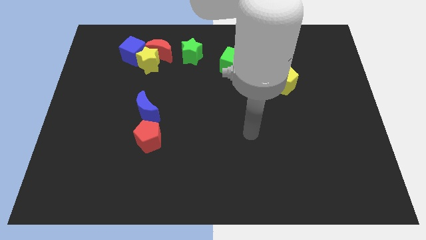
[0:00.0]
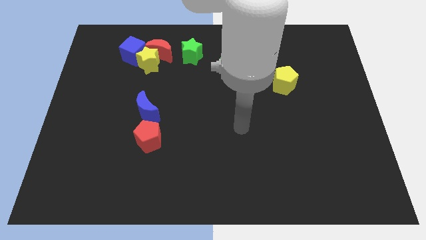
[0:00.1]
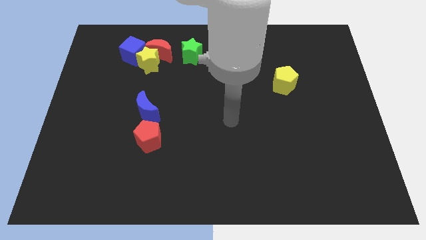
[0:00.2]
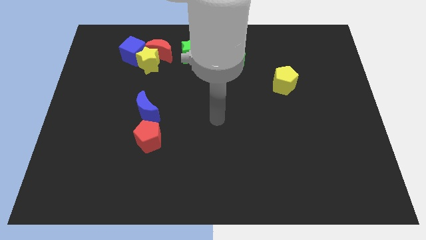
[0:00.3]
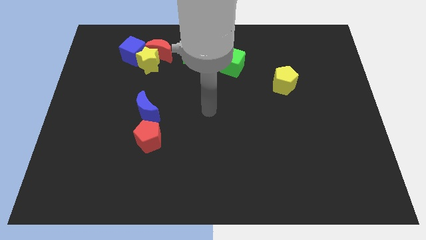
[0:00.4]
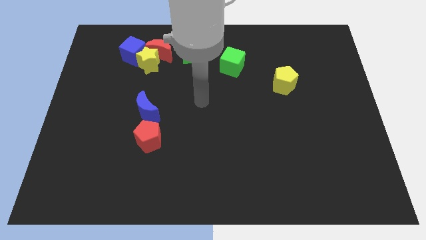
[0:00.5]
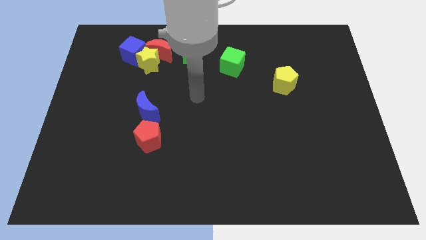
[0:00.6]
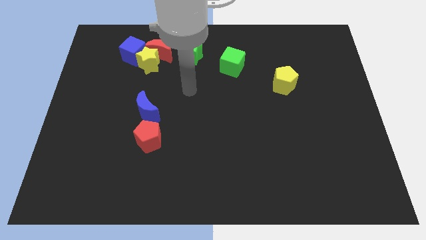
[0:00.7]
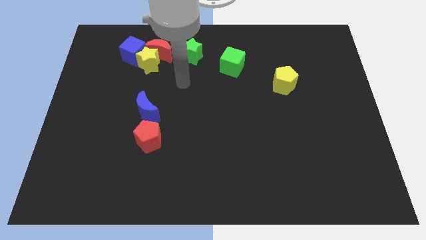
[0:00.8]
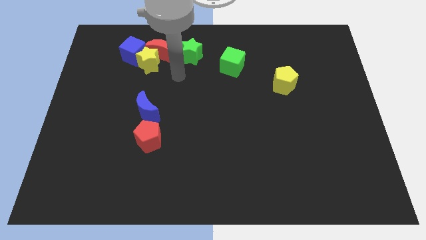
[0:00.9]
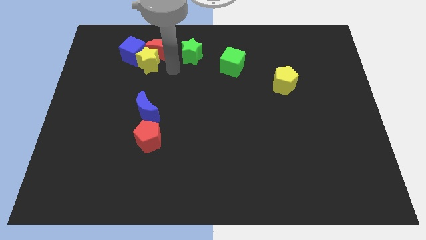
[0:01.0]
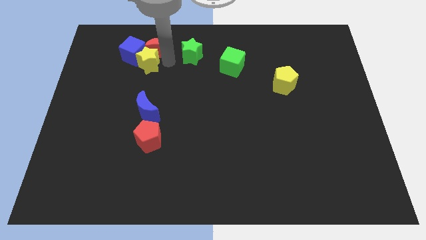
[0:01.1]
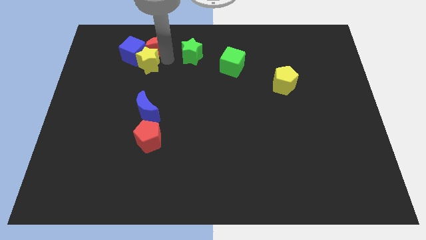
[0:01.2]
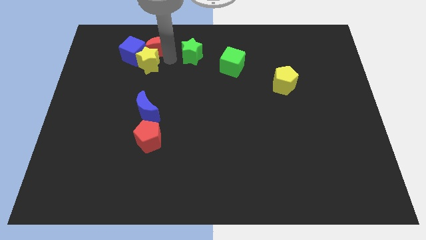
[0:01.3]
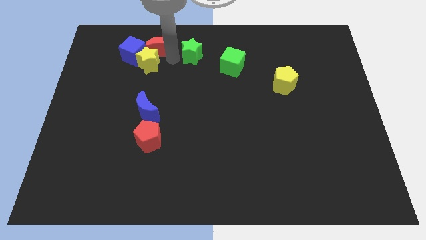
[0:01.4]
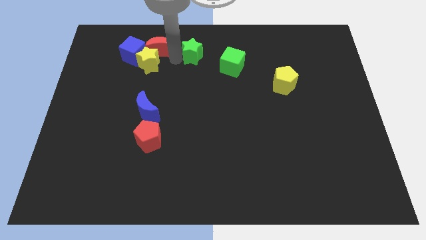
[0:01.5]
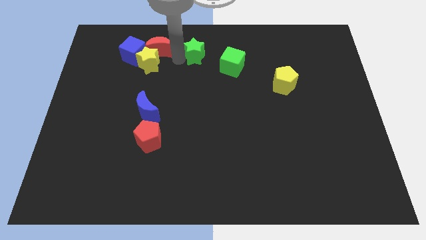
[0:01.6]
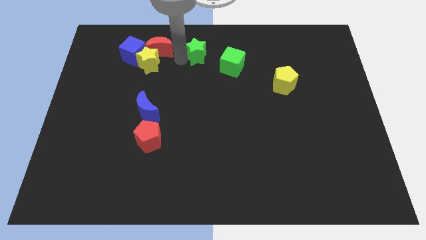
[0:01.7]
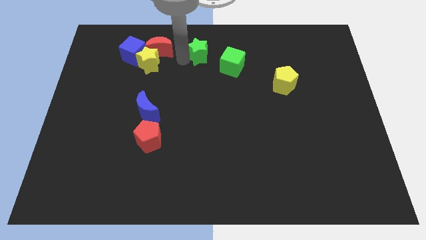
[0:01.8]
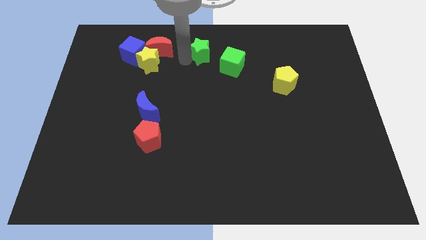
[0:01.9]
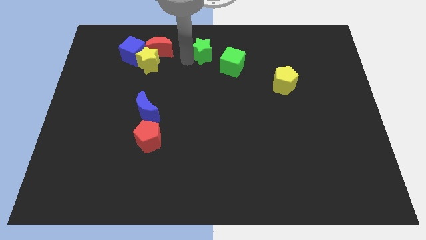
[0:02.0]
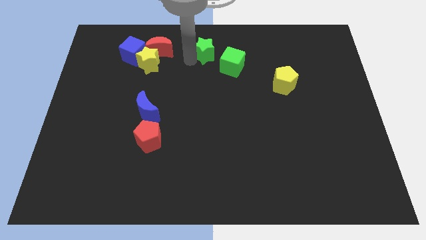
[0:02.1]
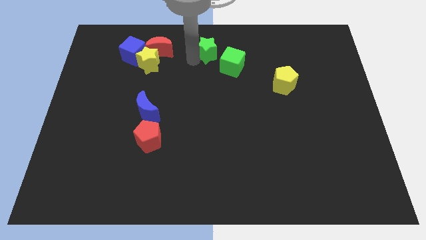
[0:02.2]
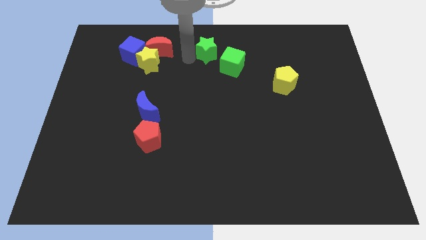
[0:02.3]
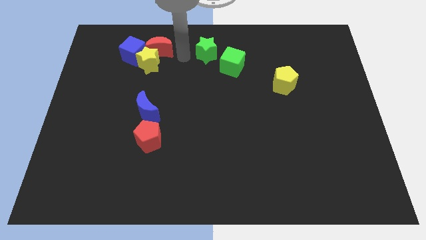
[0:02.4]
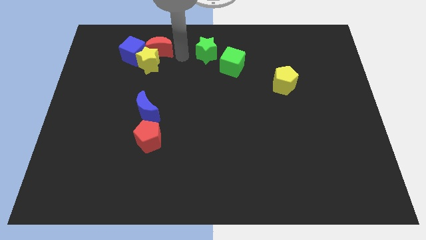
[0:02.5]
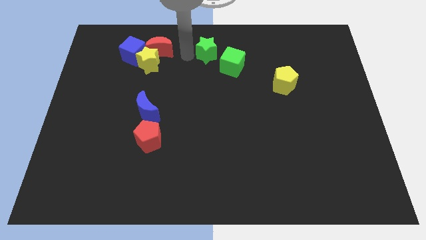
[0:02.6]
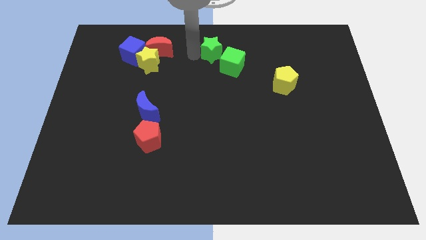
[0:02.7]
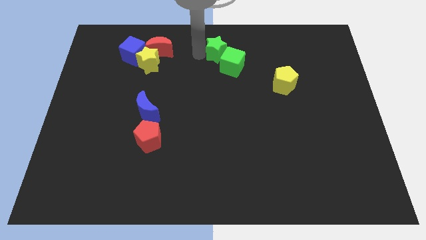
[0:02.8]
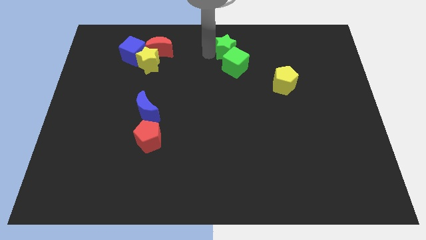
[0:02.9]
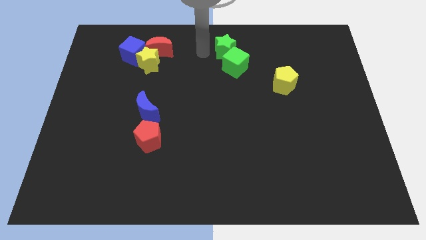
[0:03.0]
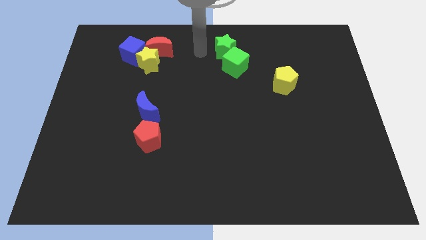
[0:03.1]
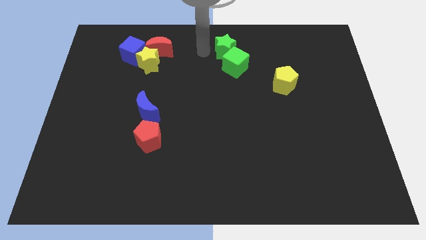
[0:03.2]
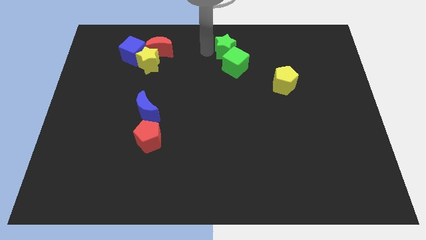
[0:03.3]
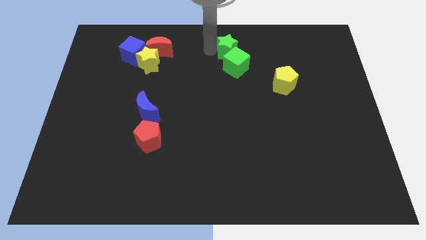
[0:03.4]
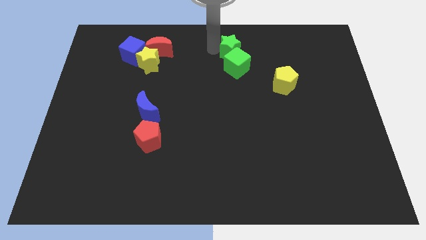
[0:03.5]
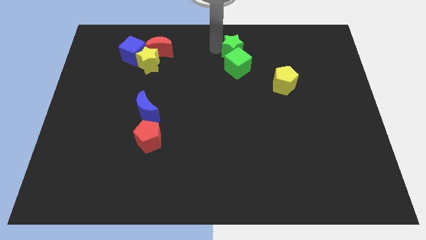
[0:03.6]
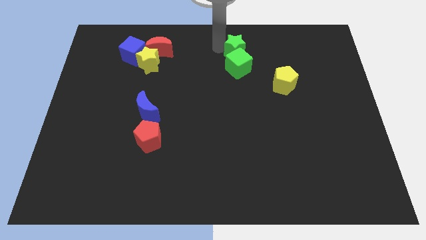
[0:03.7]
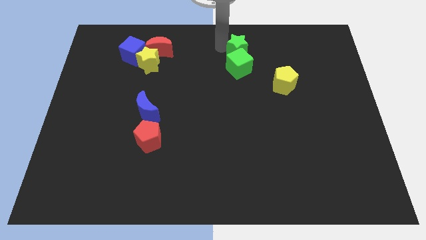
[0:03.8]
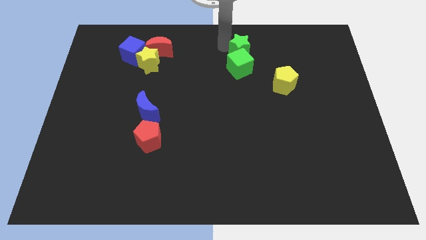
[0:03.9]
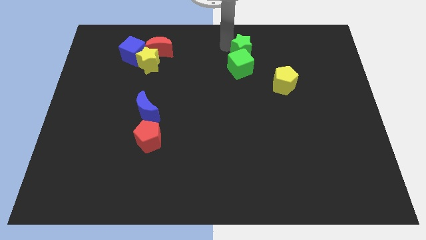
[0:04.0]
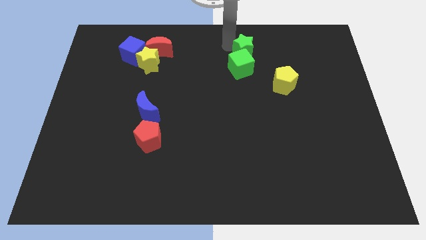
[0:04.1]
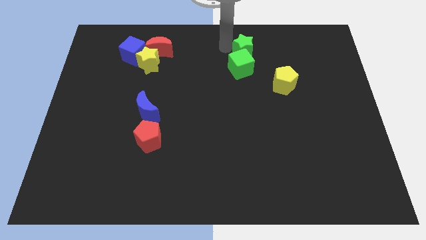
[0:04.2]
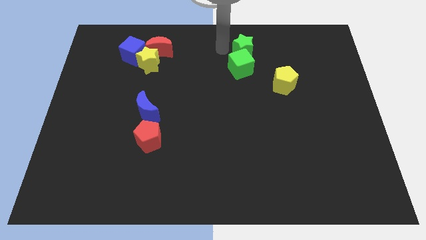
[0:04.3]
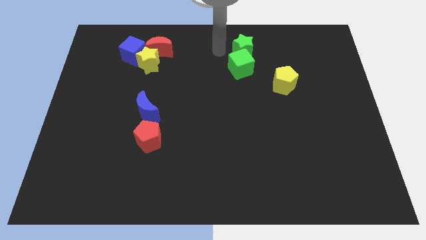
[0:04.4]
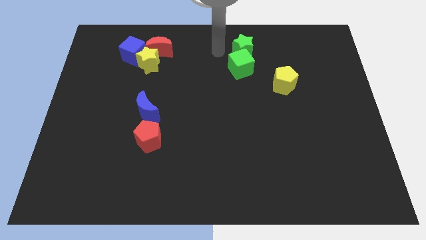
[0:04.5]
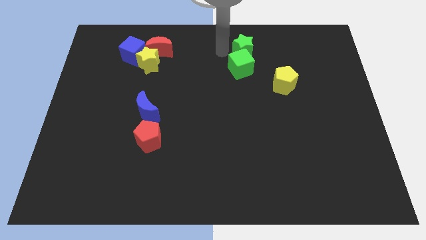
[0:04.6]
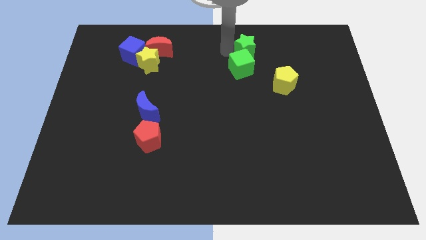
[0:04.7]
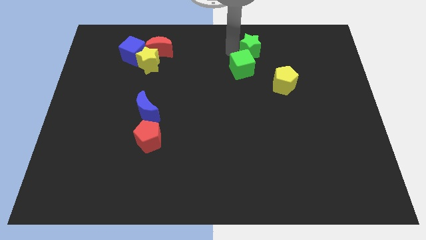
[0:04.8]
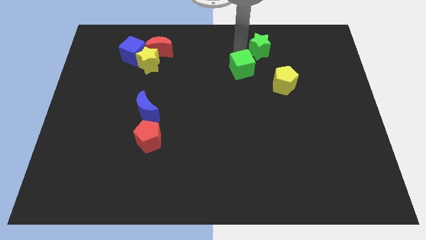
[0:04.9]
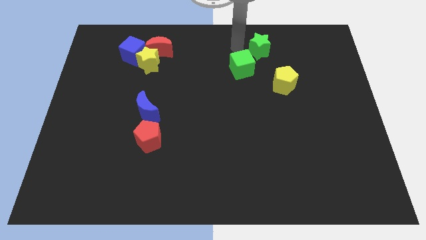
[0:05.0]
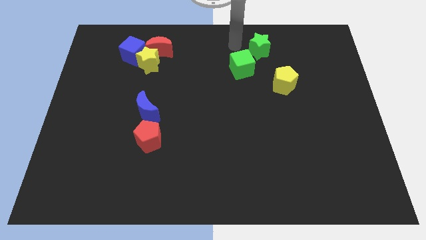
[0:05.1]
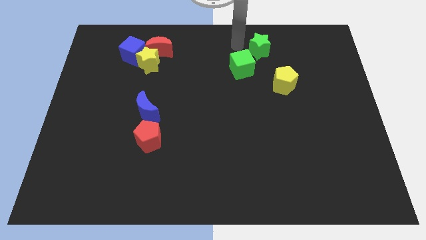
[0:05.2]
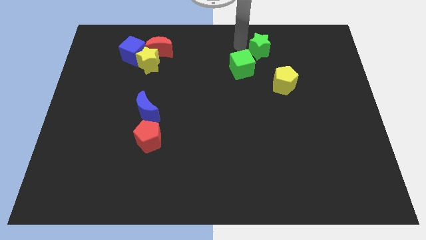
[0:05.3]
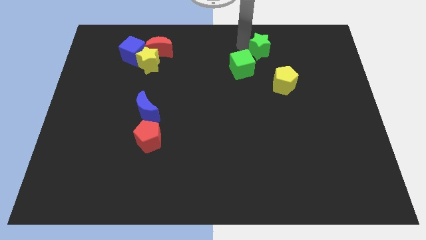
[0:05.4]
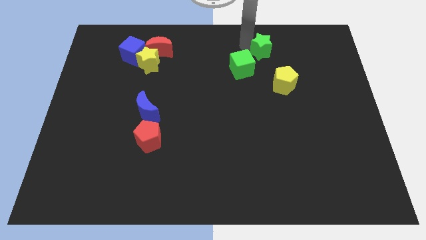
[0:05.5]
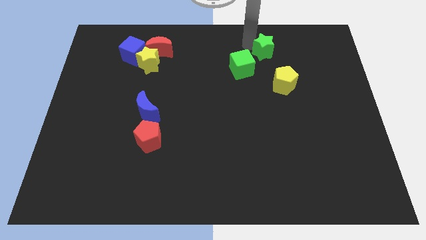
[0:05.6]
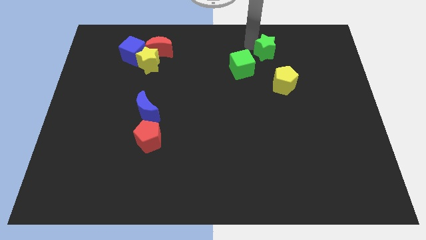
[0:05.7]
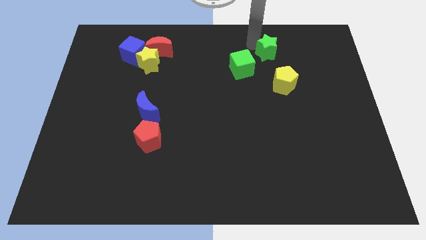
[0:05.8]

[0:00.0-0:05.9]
move the green star right

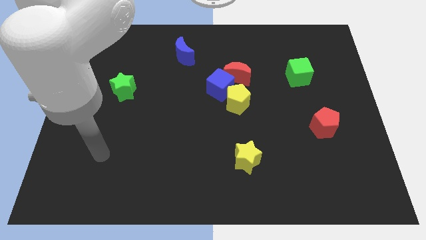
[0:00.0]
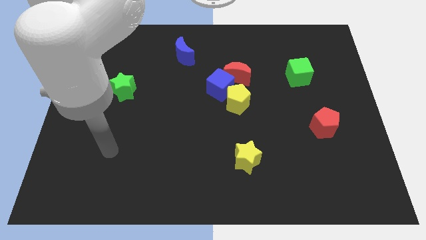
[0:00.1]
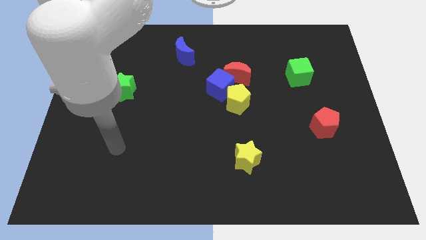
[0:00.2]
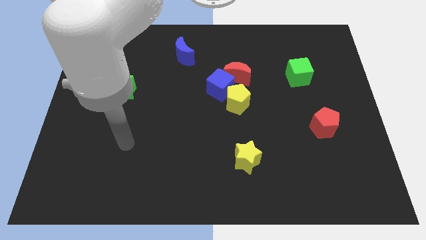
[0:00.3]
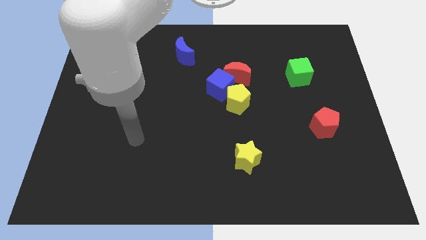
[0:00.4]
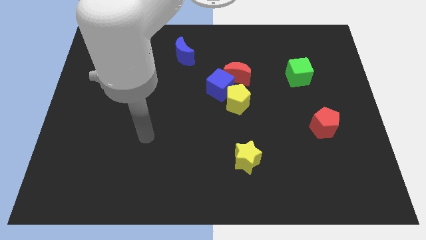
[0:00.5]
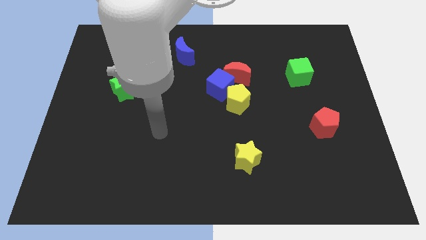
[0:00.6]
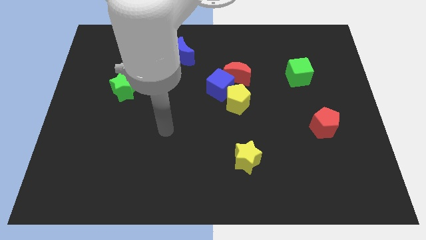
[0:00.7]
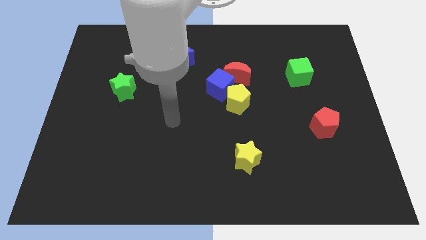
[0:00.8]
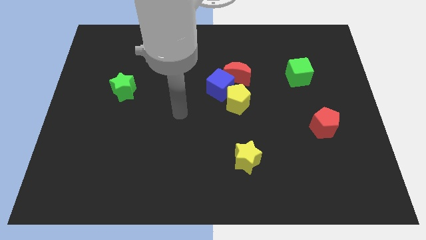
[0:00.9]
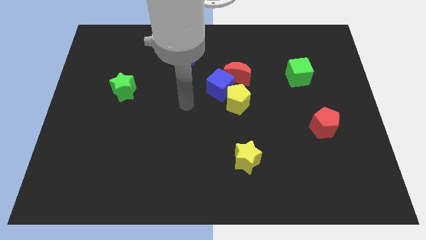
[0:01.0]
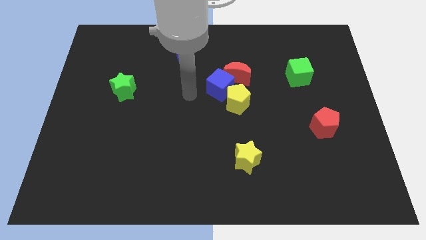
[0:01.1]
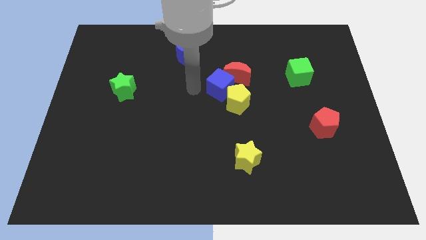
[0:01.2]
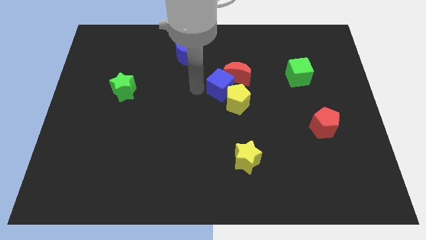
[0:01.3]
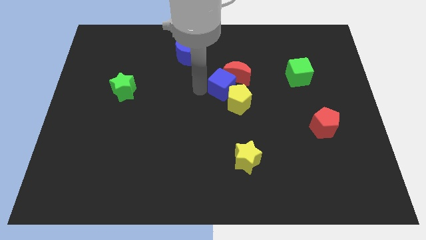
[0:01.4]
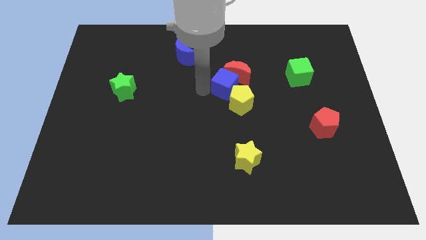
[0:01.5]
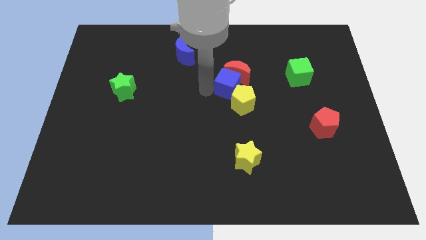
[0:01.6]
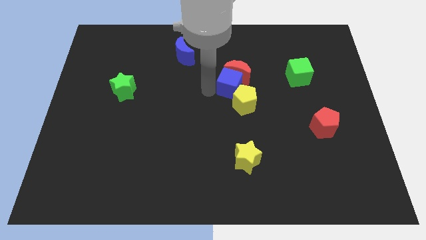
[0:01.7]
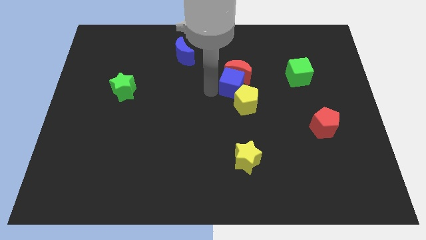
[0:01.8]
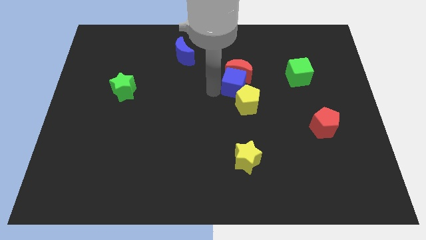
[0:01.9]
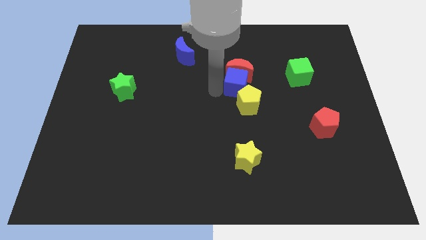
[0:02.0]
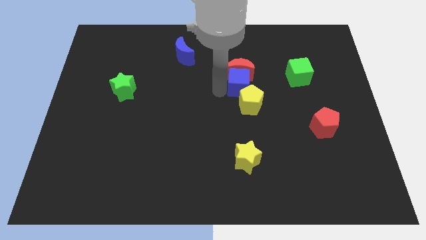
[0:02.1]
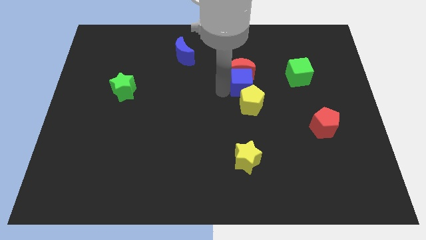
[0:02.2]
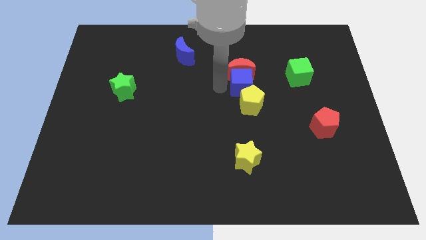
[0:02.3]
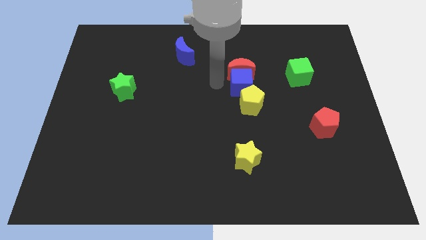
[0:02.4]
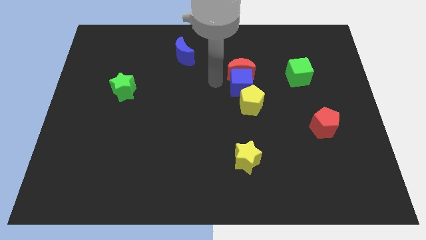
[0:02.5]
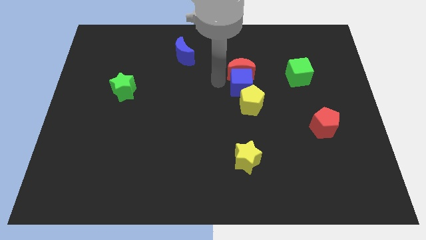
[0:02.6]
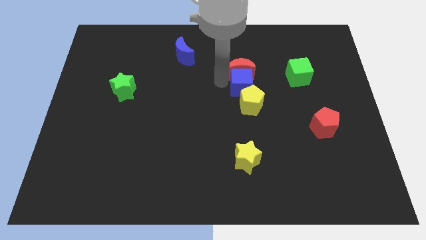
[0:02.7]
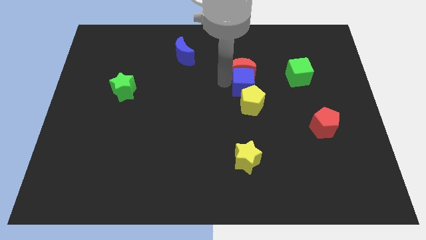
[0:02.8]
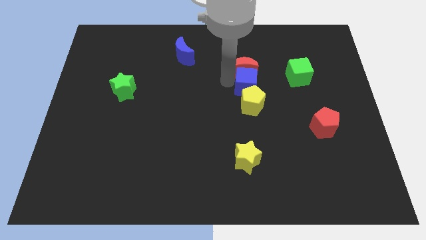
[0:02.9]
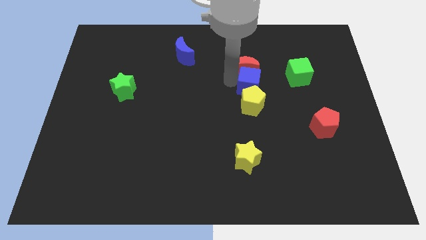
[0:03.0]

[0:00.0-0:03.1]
slightly slide the blue cube to the right
